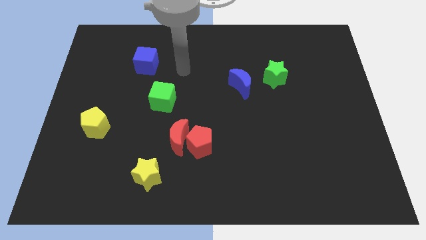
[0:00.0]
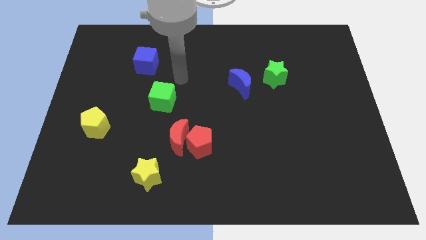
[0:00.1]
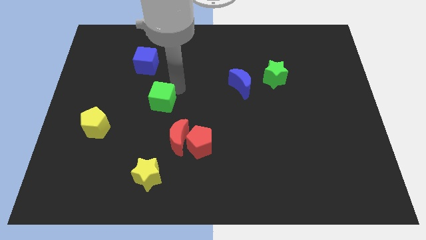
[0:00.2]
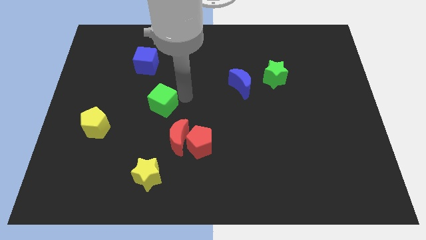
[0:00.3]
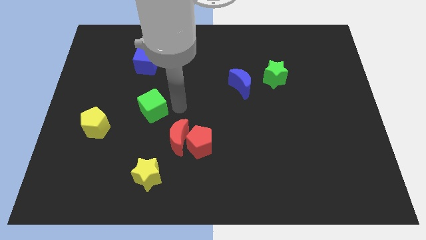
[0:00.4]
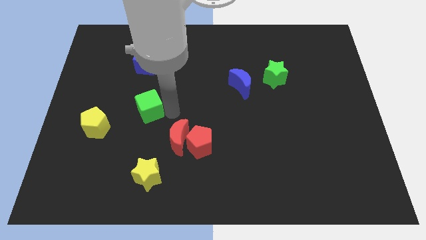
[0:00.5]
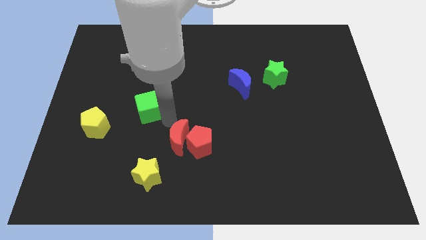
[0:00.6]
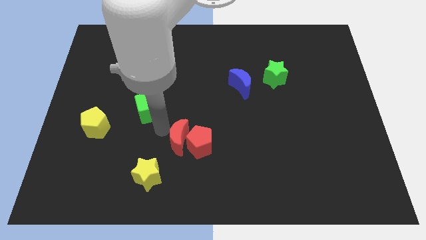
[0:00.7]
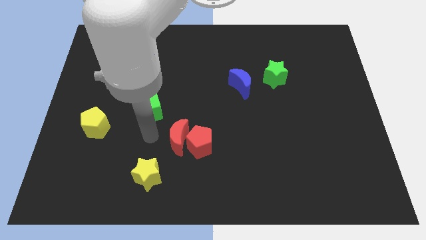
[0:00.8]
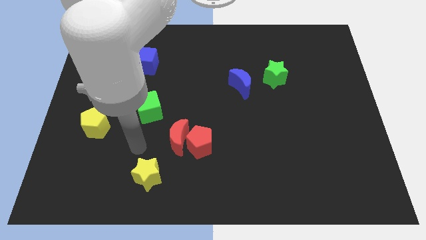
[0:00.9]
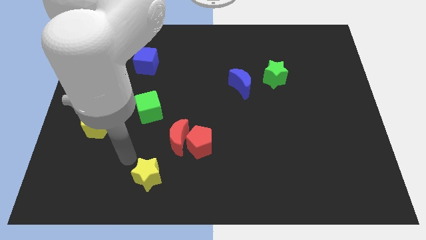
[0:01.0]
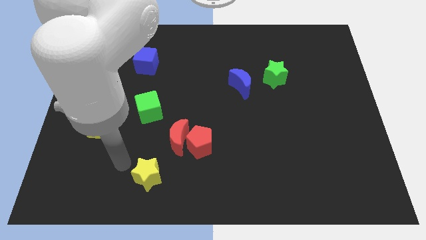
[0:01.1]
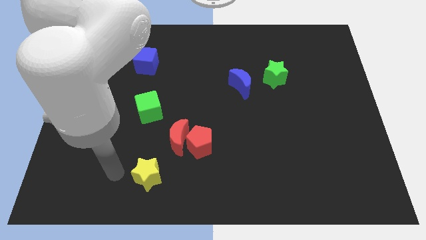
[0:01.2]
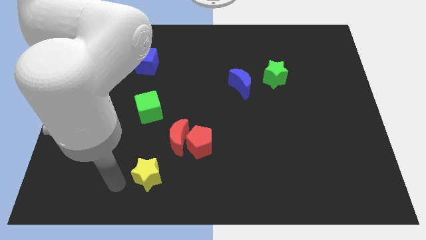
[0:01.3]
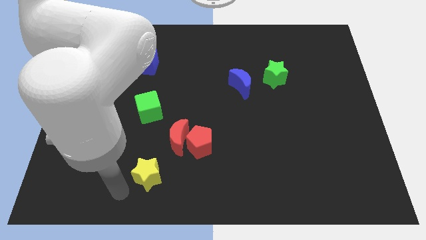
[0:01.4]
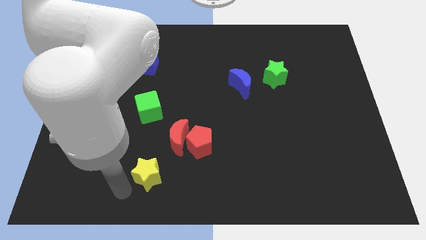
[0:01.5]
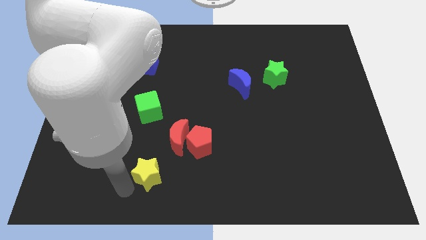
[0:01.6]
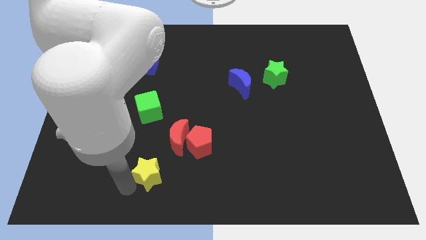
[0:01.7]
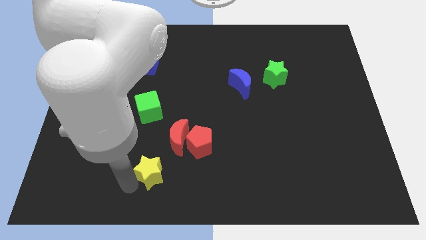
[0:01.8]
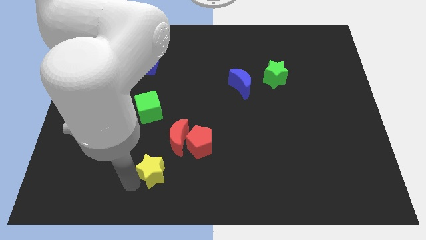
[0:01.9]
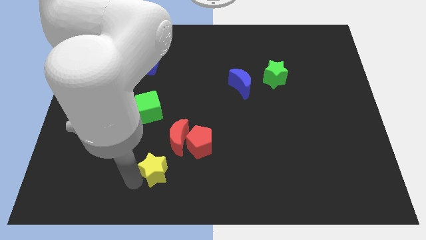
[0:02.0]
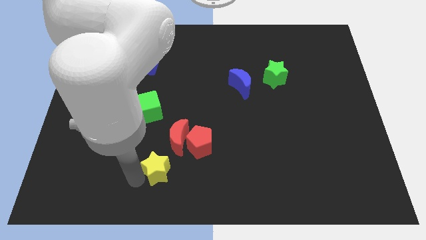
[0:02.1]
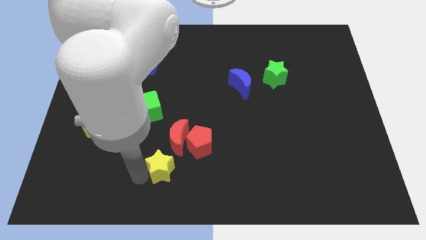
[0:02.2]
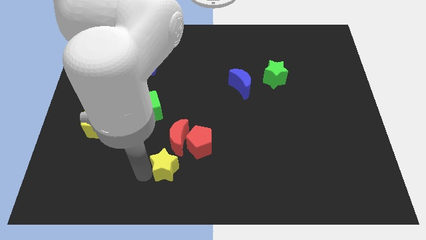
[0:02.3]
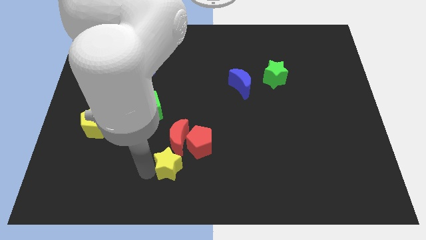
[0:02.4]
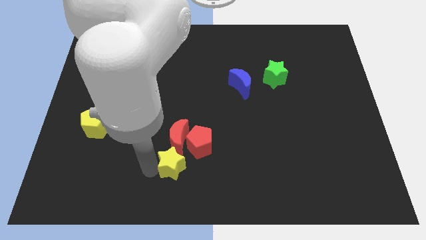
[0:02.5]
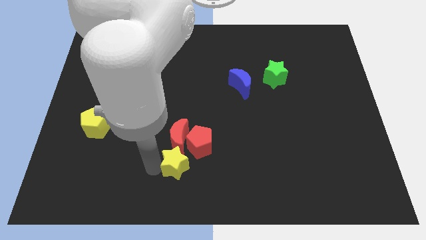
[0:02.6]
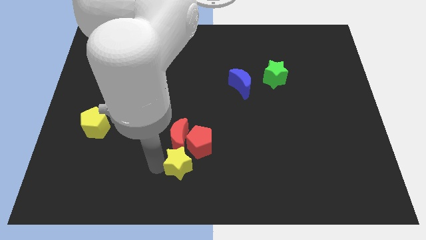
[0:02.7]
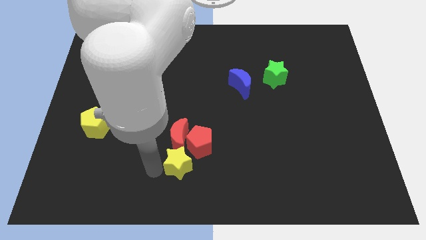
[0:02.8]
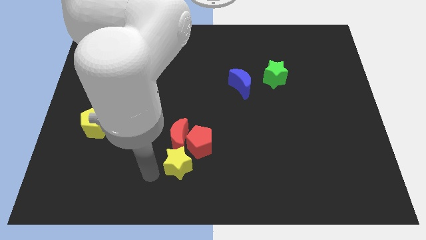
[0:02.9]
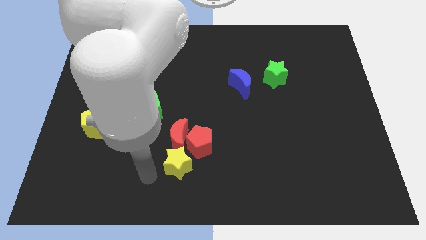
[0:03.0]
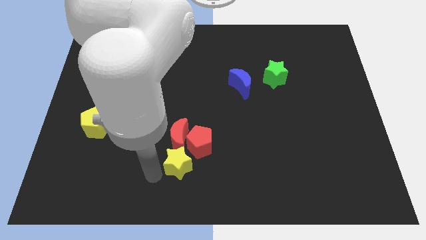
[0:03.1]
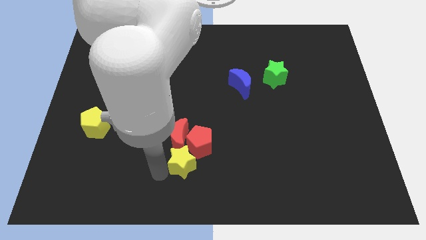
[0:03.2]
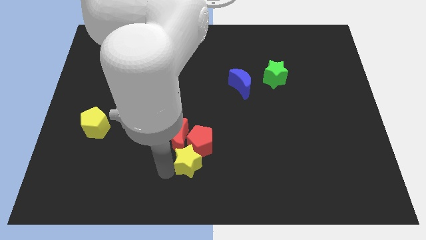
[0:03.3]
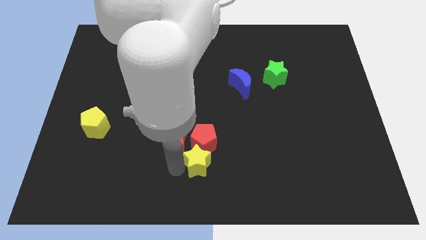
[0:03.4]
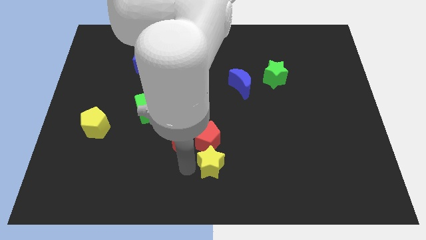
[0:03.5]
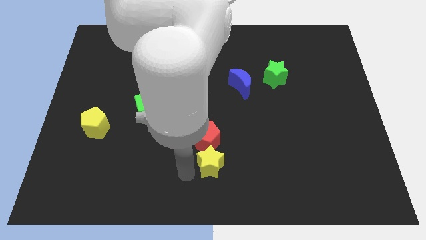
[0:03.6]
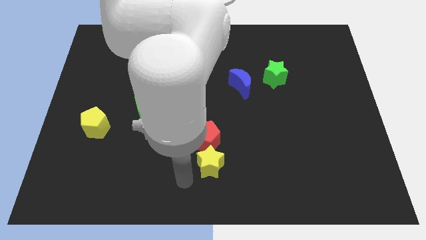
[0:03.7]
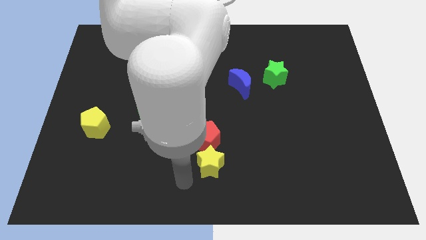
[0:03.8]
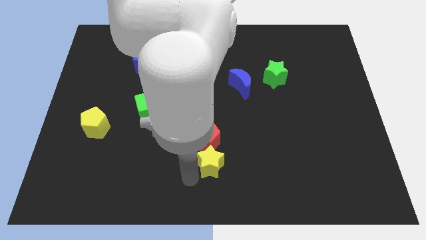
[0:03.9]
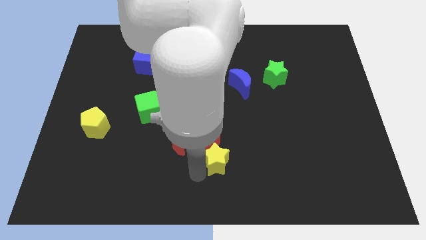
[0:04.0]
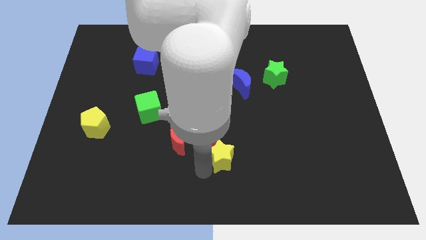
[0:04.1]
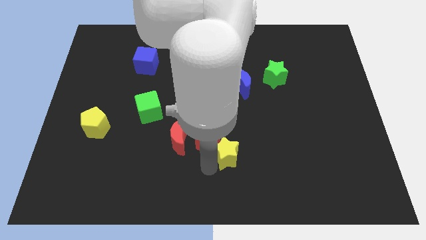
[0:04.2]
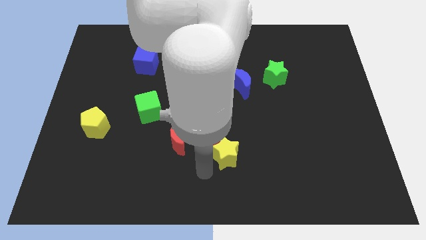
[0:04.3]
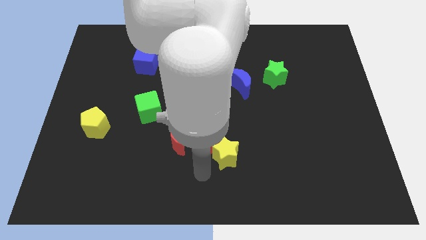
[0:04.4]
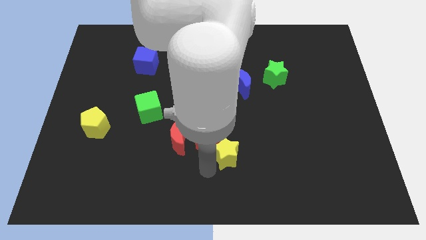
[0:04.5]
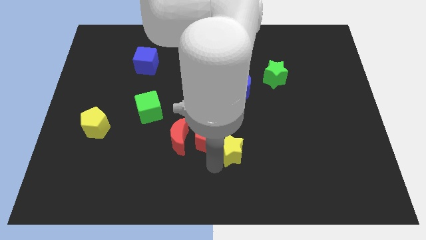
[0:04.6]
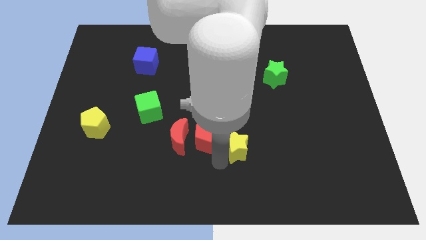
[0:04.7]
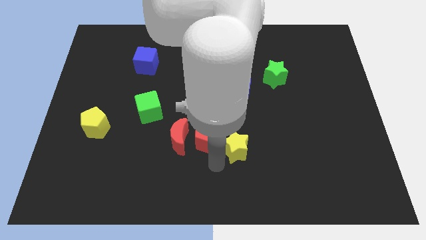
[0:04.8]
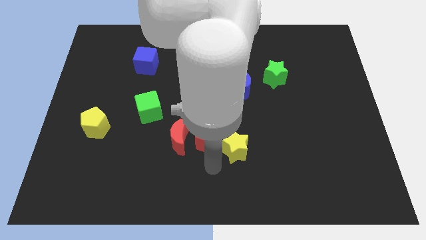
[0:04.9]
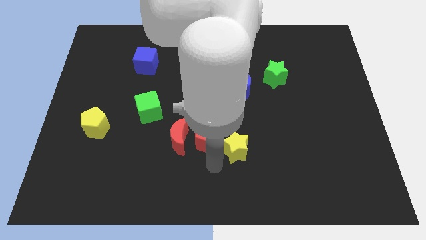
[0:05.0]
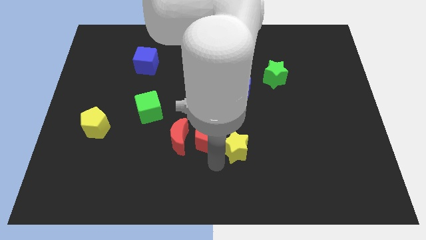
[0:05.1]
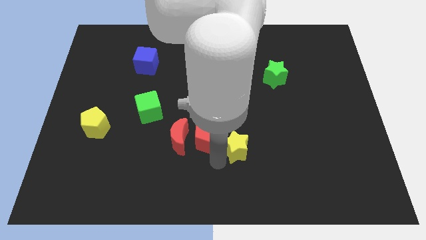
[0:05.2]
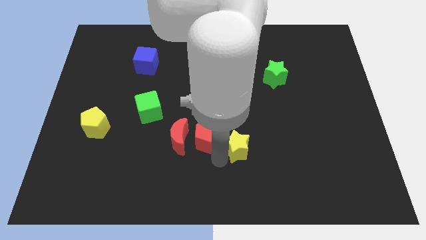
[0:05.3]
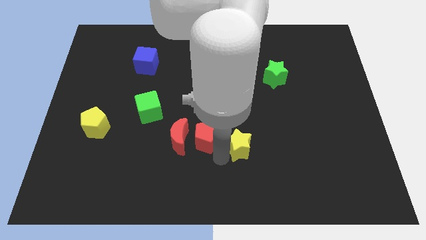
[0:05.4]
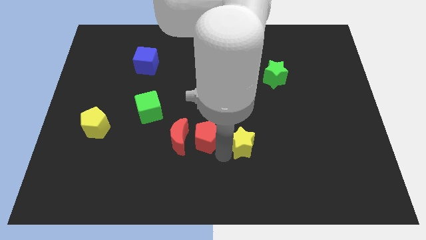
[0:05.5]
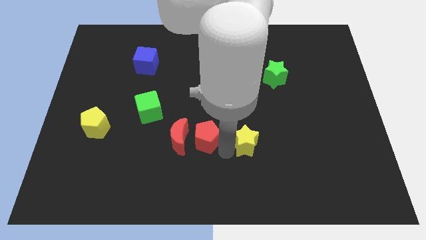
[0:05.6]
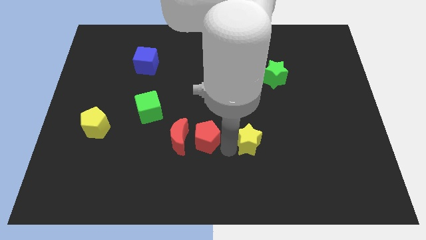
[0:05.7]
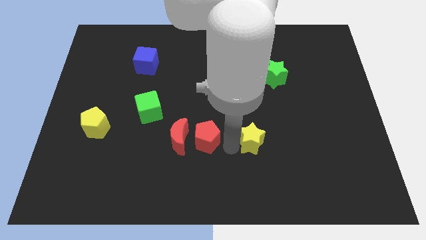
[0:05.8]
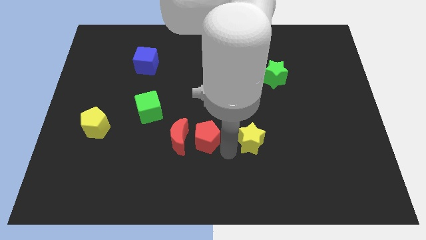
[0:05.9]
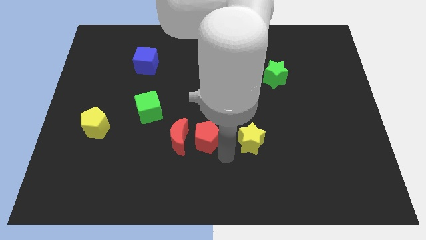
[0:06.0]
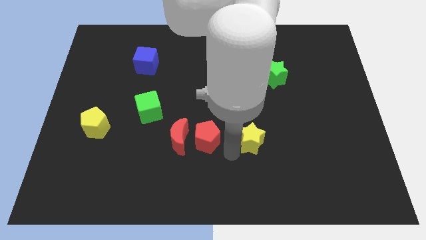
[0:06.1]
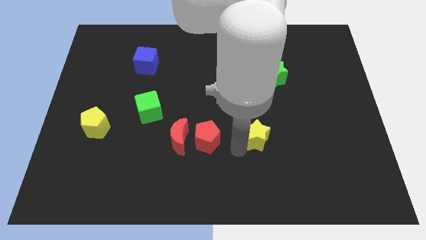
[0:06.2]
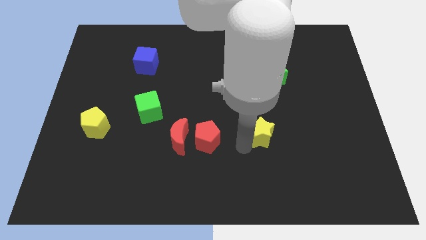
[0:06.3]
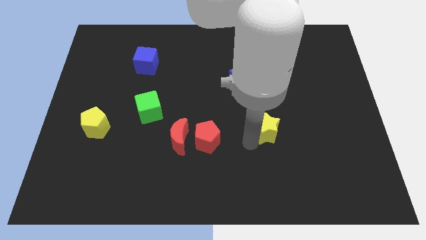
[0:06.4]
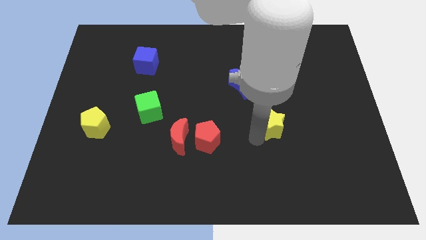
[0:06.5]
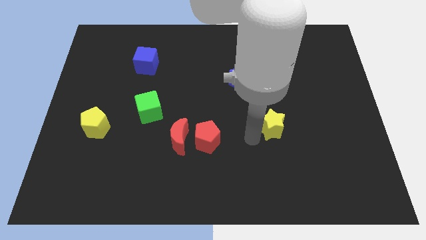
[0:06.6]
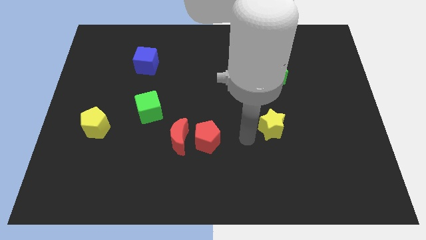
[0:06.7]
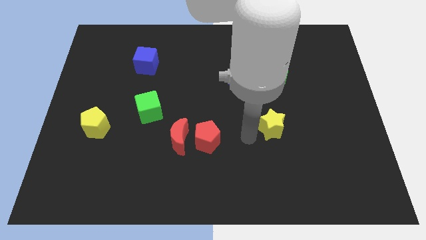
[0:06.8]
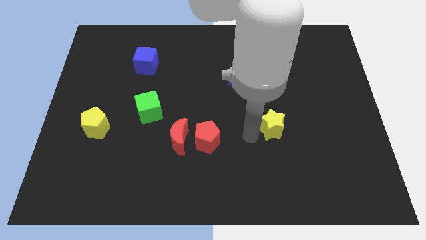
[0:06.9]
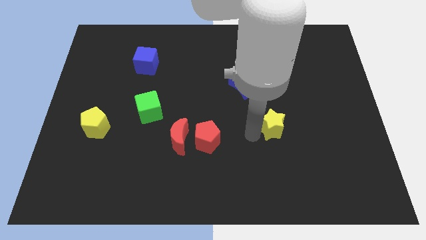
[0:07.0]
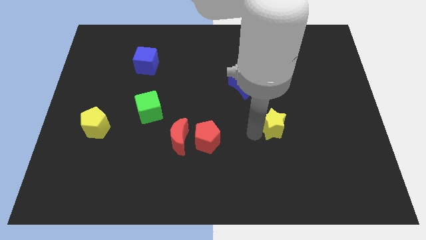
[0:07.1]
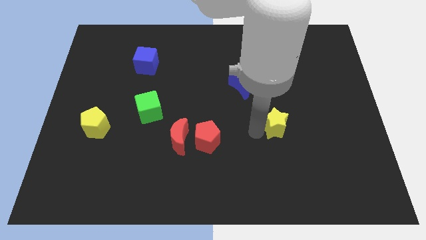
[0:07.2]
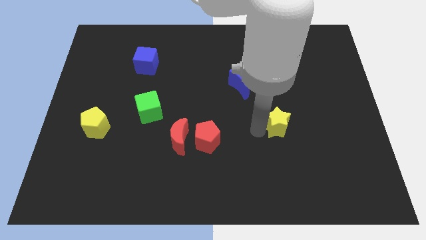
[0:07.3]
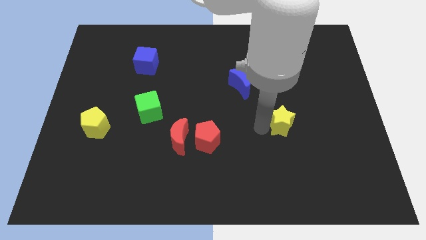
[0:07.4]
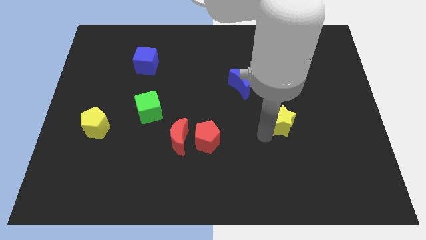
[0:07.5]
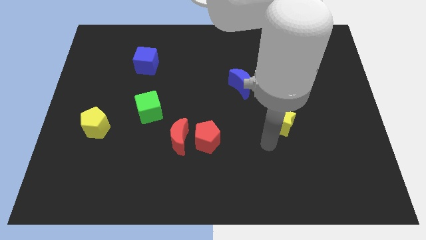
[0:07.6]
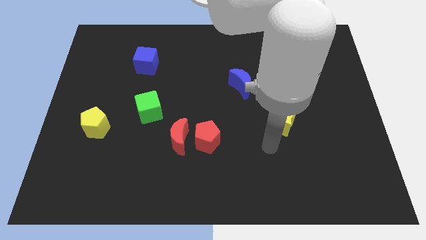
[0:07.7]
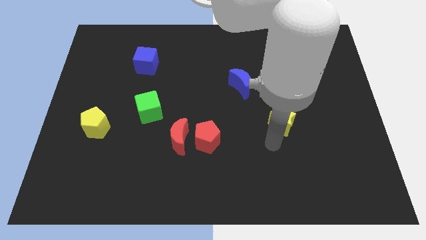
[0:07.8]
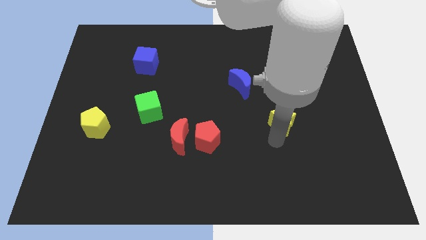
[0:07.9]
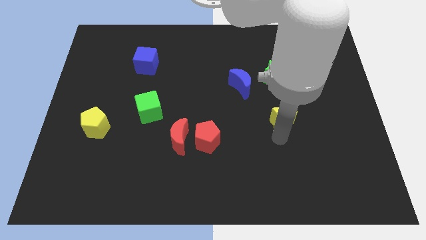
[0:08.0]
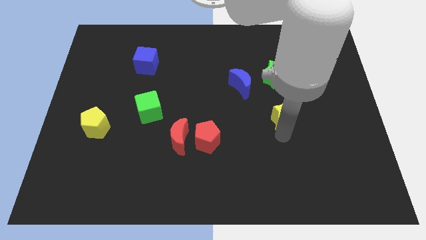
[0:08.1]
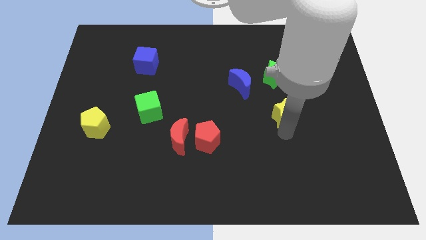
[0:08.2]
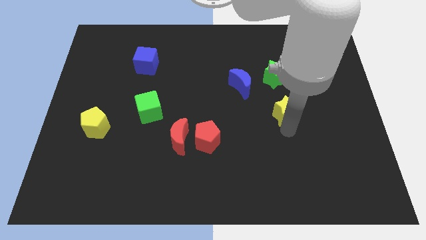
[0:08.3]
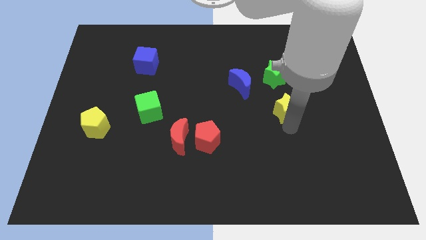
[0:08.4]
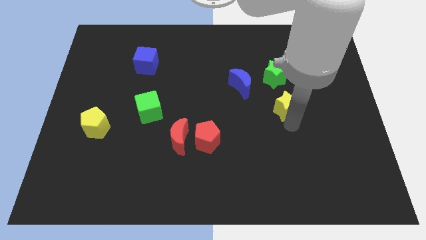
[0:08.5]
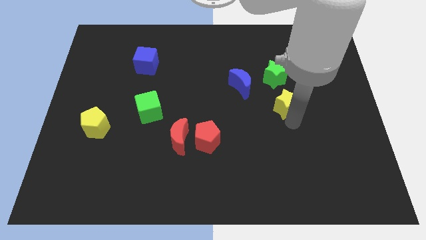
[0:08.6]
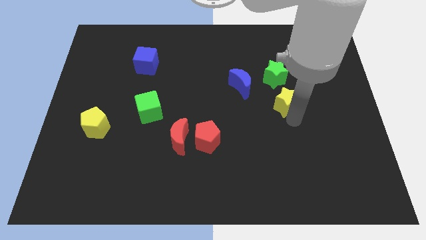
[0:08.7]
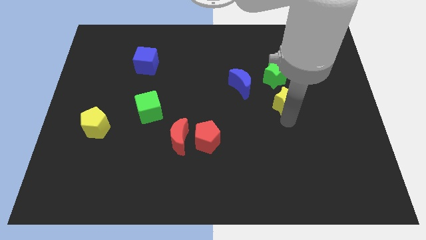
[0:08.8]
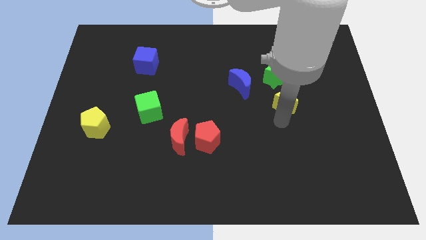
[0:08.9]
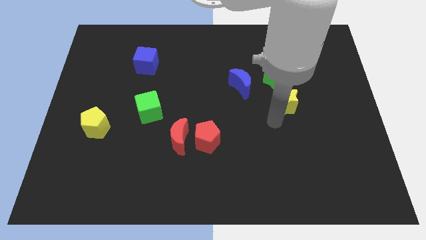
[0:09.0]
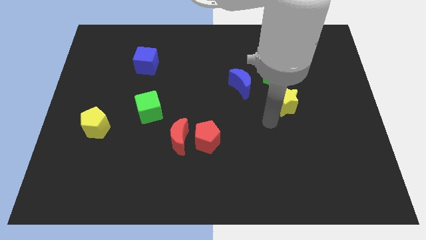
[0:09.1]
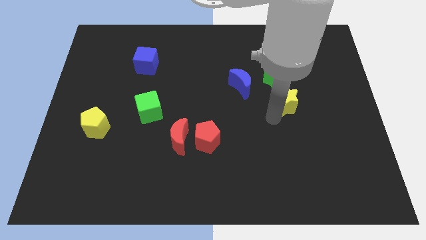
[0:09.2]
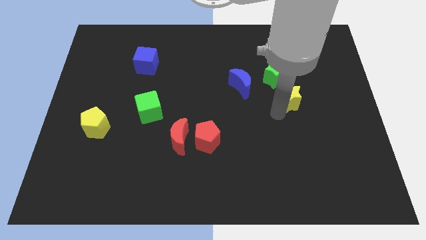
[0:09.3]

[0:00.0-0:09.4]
move the yellow star diagonally down and to the right of the green star
